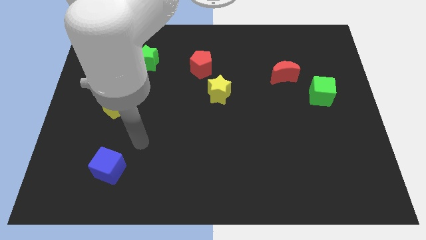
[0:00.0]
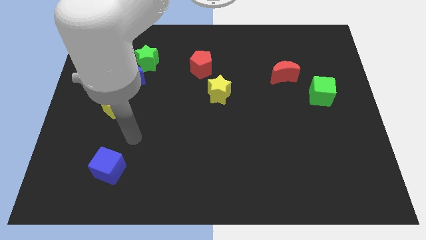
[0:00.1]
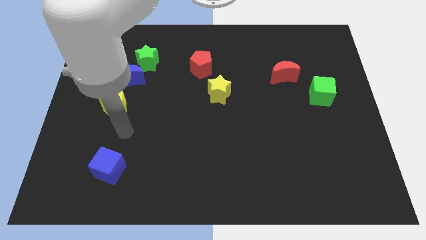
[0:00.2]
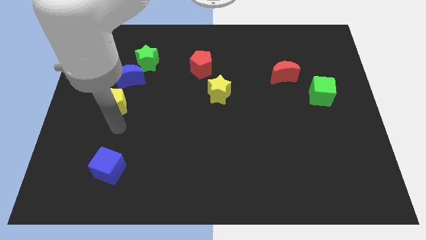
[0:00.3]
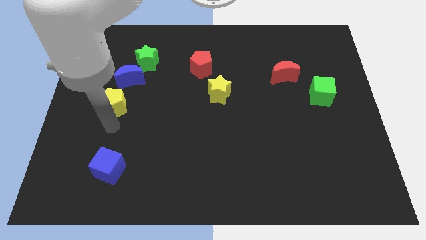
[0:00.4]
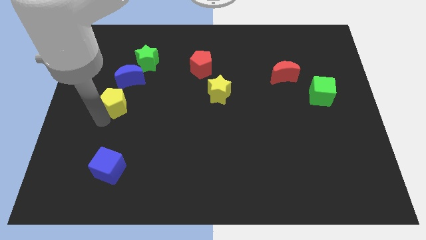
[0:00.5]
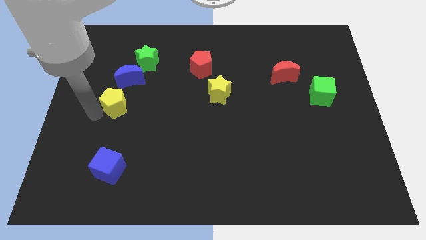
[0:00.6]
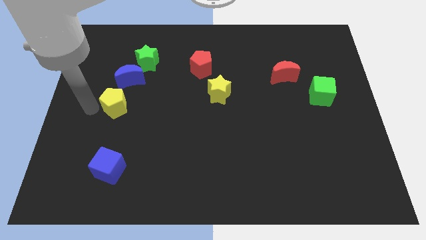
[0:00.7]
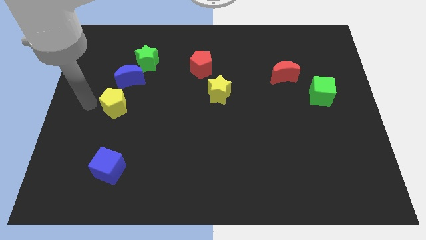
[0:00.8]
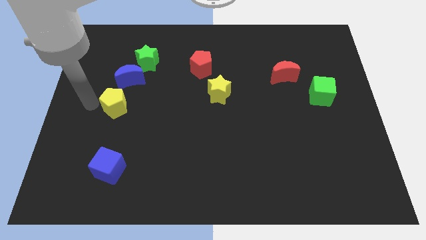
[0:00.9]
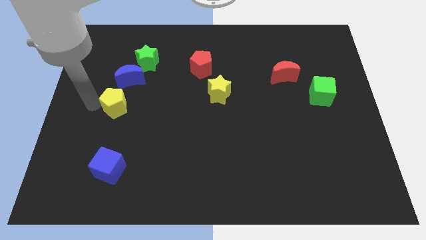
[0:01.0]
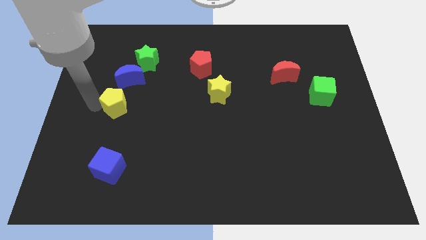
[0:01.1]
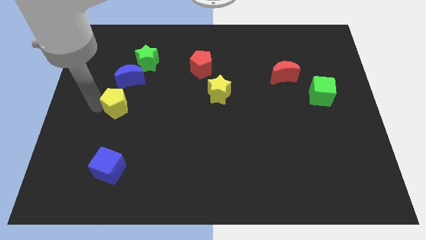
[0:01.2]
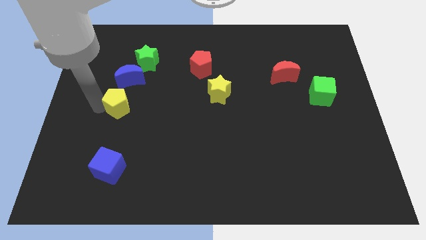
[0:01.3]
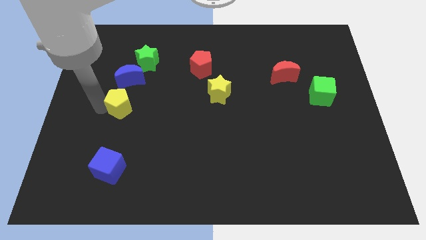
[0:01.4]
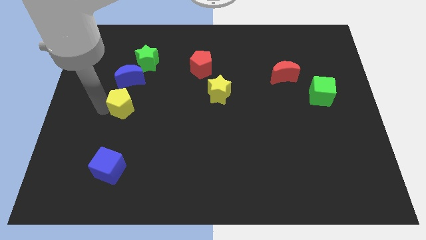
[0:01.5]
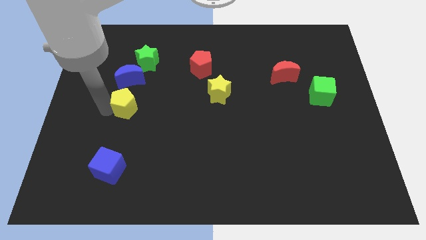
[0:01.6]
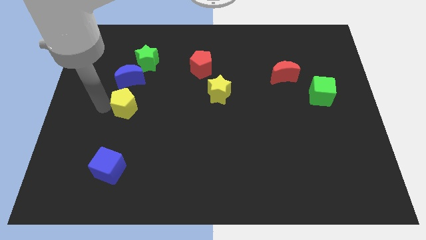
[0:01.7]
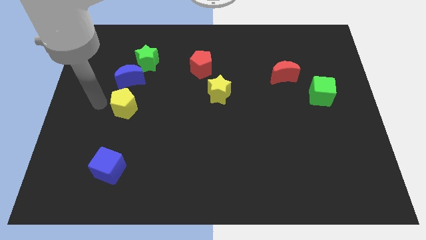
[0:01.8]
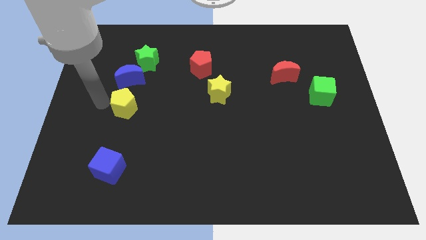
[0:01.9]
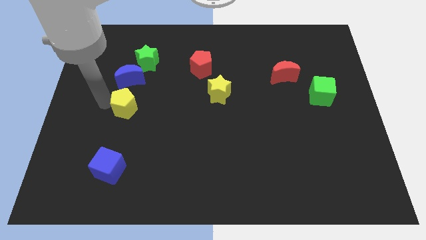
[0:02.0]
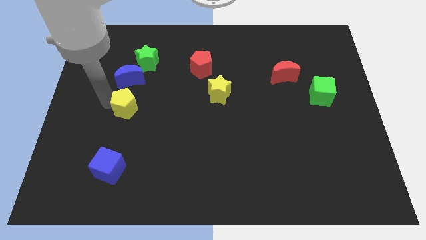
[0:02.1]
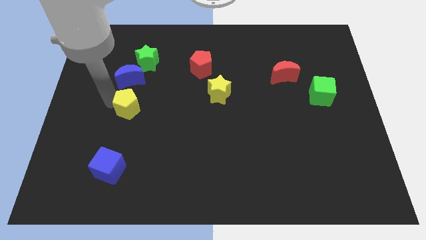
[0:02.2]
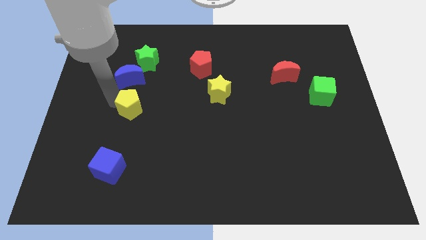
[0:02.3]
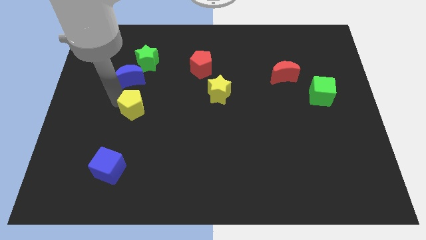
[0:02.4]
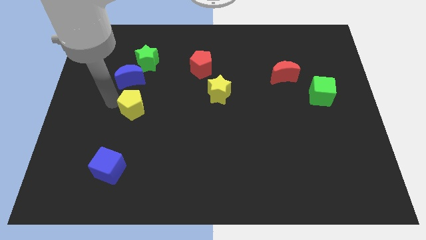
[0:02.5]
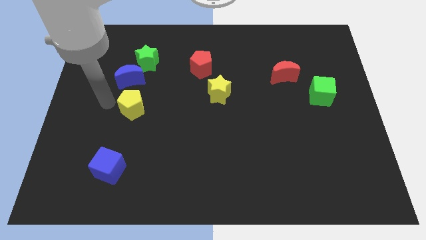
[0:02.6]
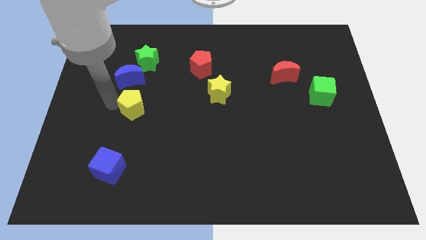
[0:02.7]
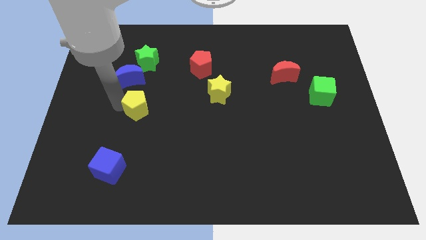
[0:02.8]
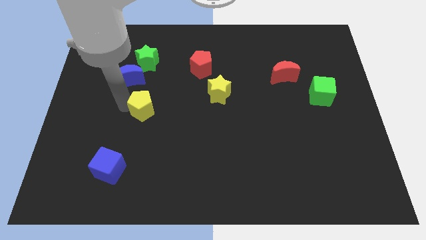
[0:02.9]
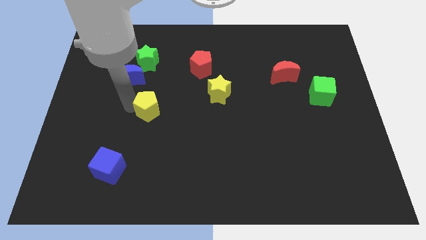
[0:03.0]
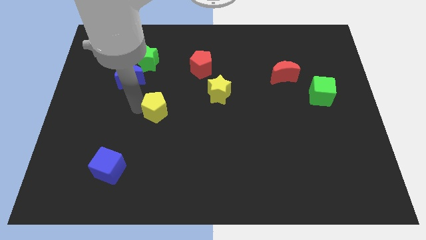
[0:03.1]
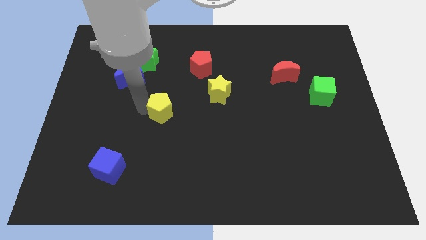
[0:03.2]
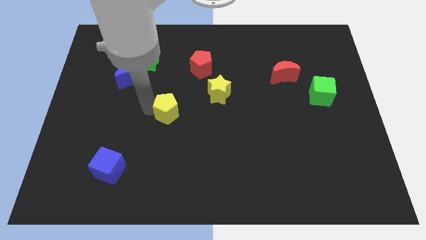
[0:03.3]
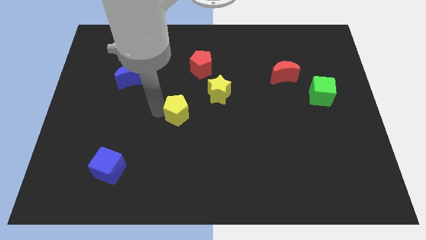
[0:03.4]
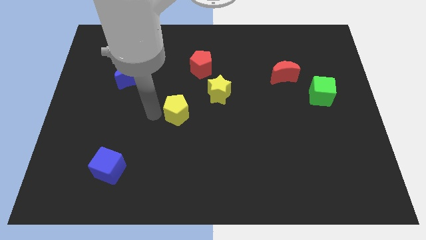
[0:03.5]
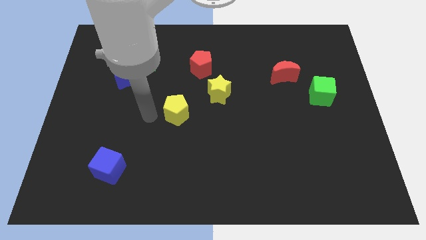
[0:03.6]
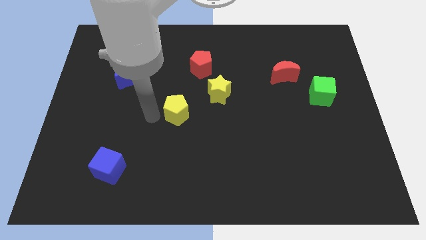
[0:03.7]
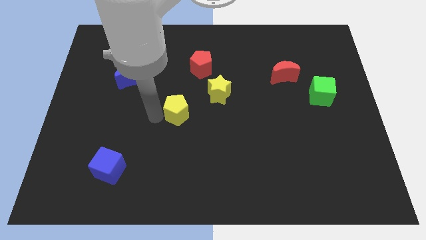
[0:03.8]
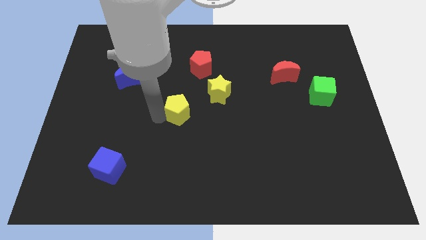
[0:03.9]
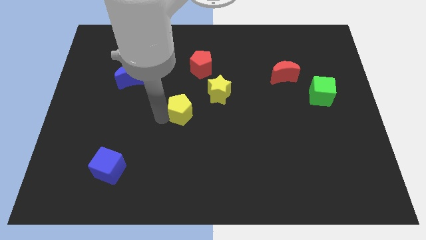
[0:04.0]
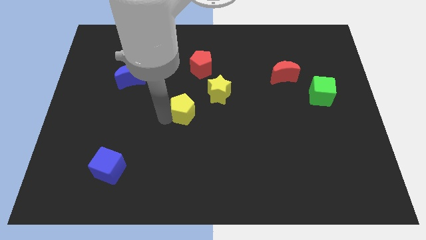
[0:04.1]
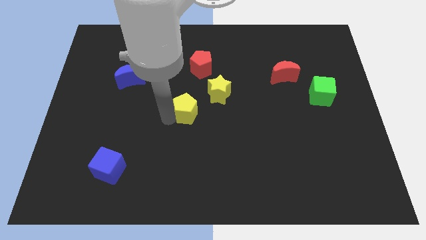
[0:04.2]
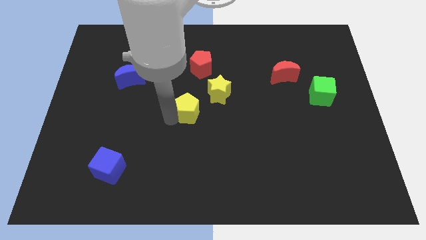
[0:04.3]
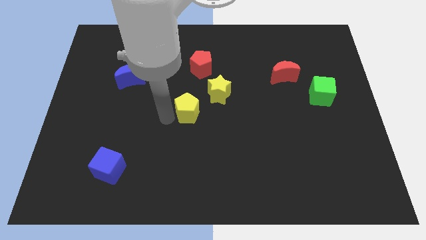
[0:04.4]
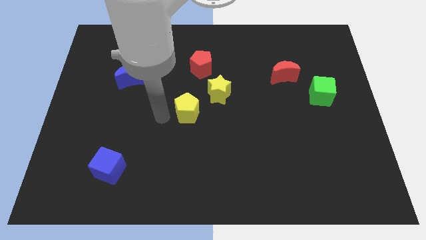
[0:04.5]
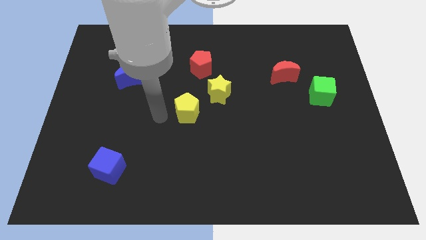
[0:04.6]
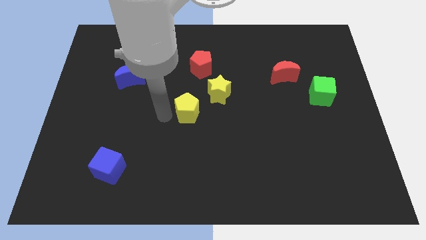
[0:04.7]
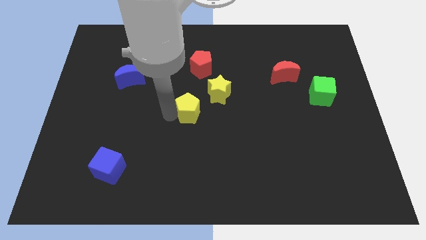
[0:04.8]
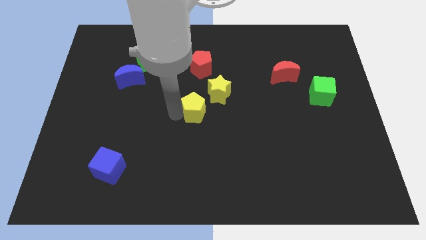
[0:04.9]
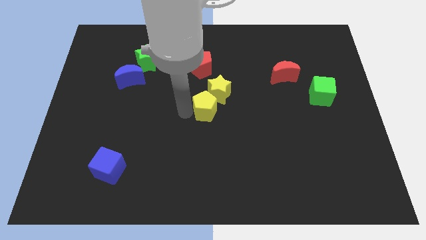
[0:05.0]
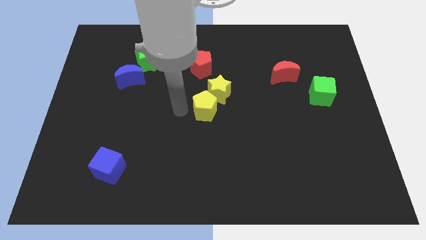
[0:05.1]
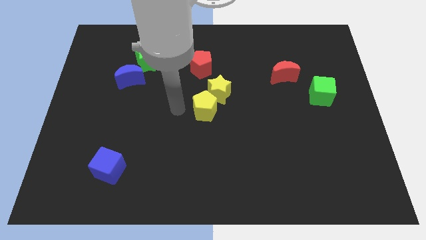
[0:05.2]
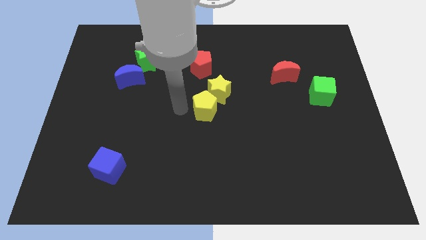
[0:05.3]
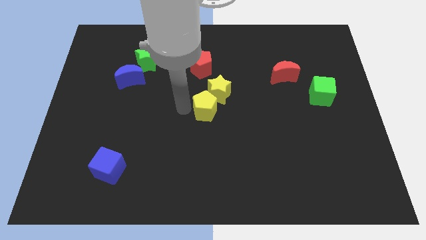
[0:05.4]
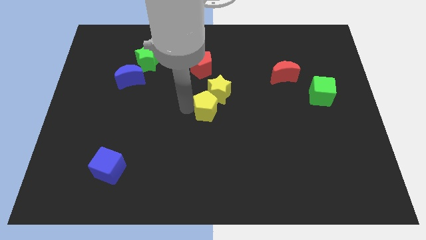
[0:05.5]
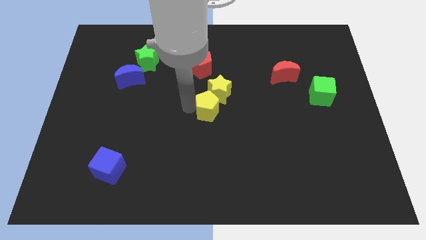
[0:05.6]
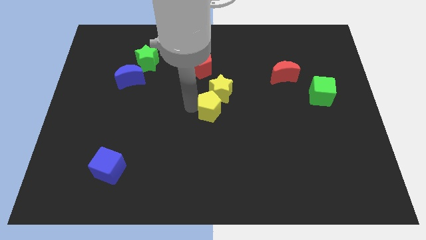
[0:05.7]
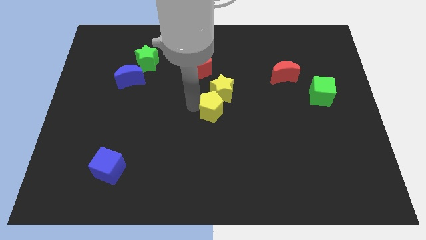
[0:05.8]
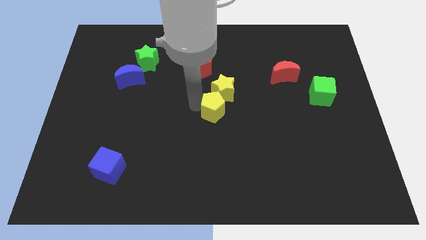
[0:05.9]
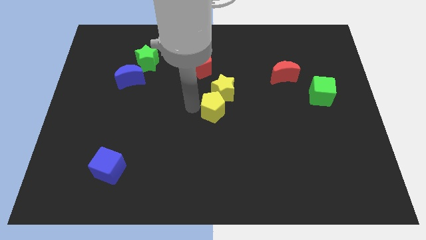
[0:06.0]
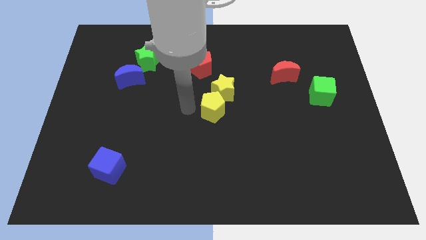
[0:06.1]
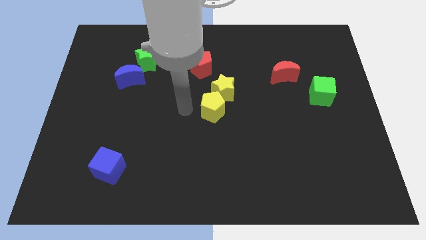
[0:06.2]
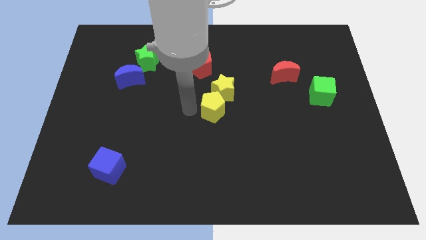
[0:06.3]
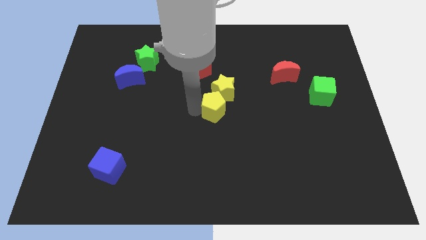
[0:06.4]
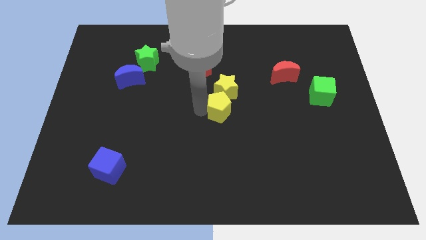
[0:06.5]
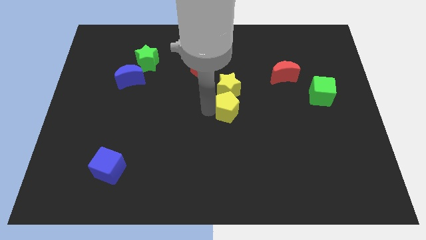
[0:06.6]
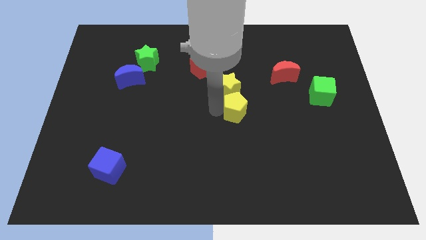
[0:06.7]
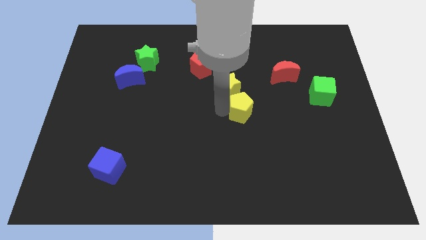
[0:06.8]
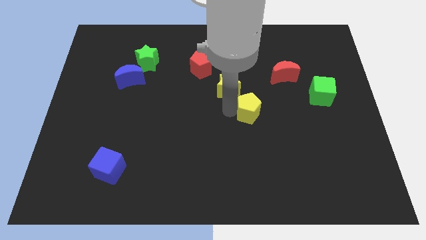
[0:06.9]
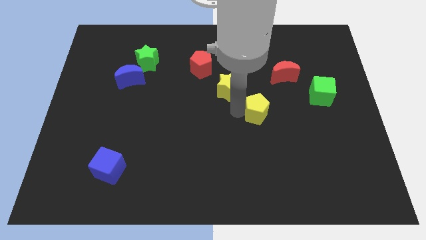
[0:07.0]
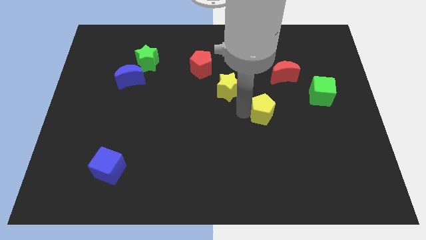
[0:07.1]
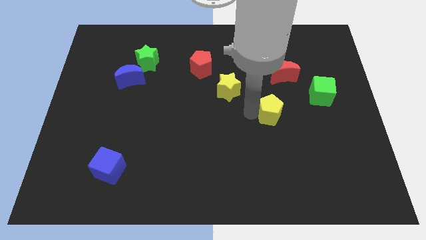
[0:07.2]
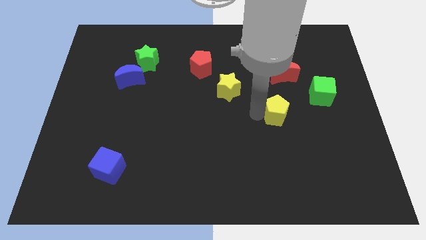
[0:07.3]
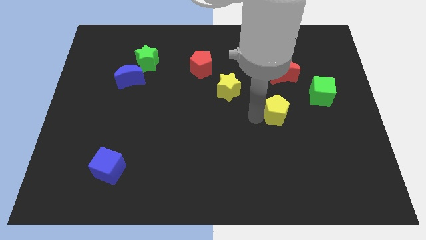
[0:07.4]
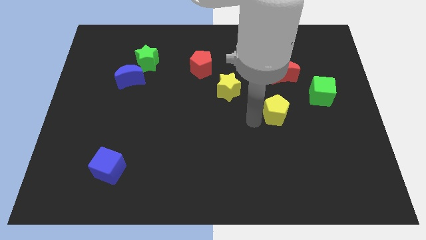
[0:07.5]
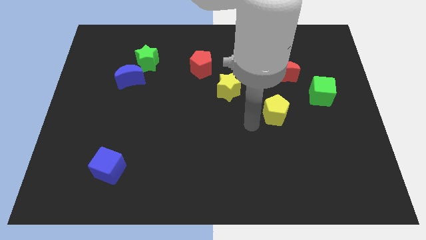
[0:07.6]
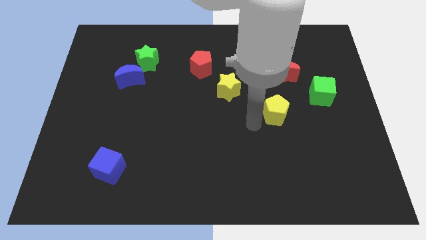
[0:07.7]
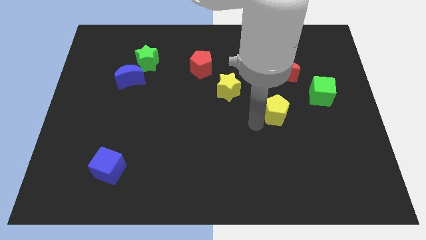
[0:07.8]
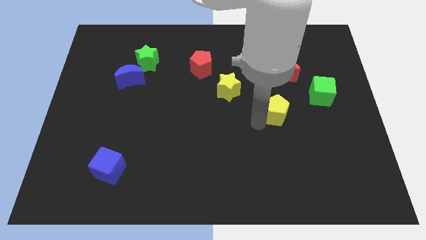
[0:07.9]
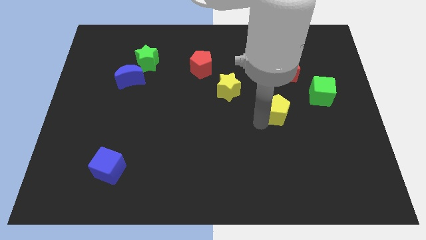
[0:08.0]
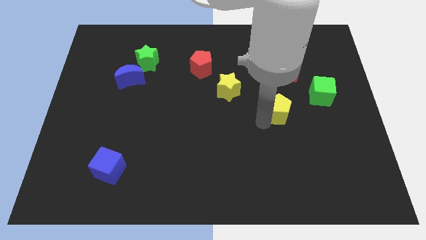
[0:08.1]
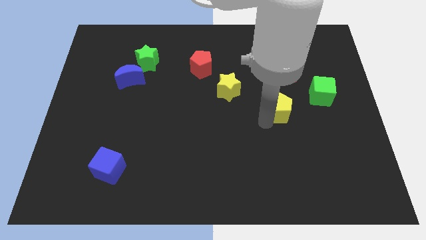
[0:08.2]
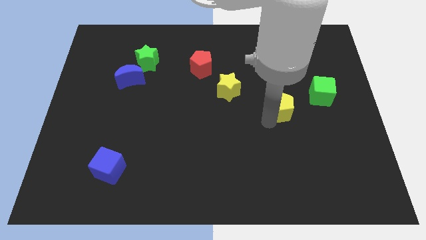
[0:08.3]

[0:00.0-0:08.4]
slide the yellow pentagon to the bottom left of the green cube
